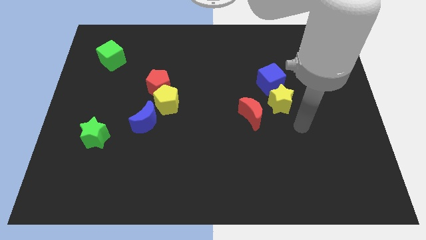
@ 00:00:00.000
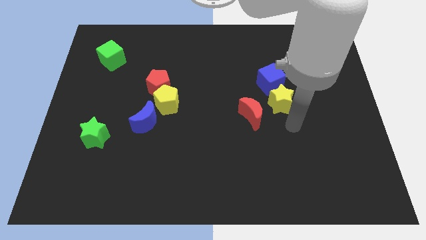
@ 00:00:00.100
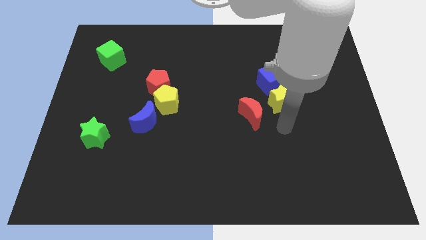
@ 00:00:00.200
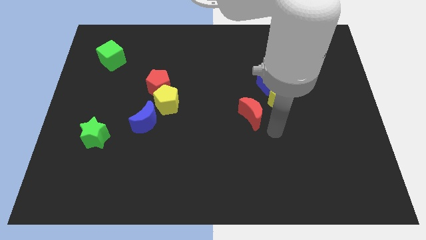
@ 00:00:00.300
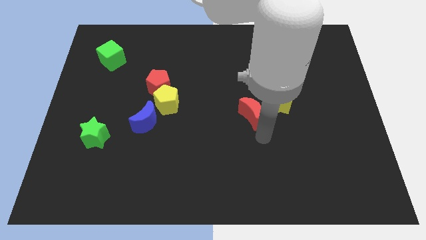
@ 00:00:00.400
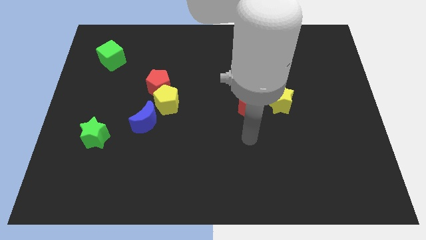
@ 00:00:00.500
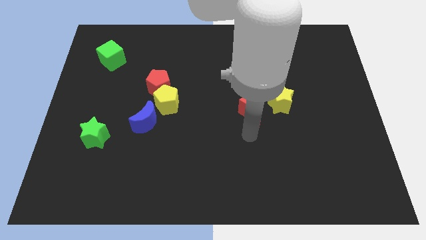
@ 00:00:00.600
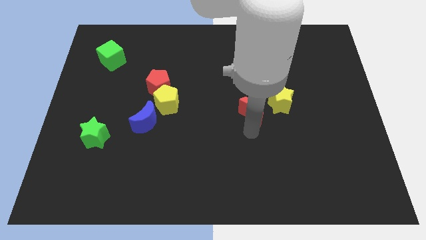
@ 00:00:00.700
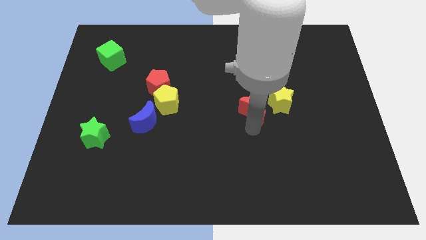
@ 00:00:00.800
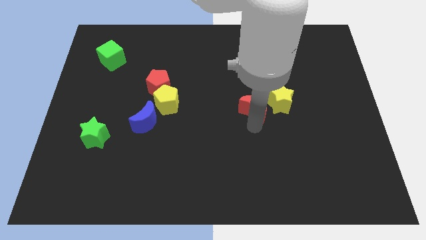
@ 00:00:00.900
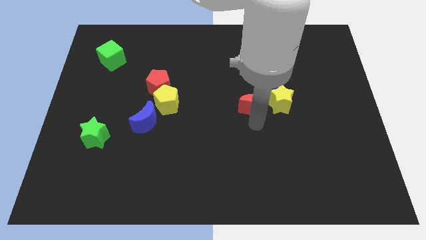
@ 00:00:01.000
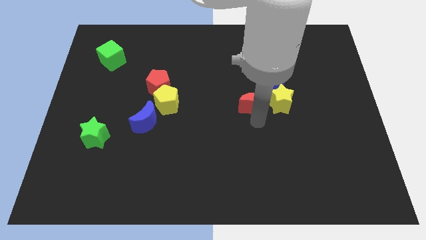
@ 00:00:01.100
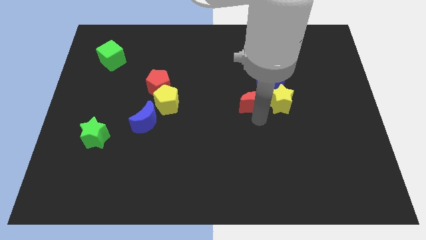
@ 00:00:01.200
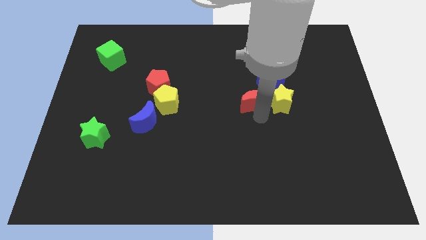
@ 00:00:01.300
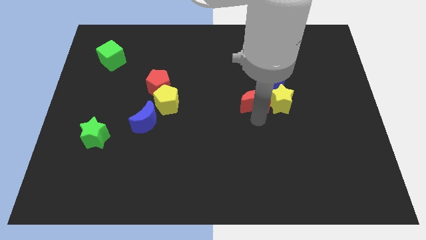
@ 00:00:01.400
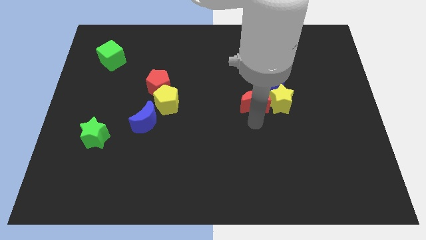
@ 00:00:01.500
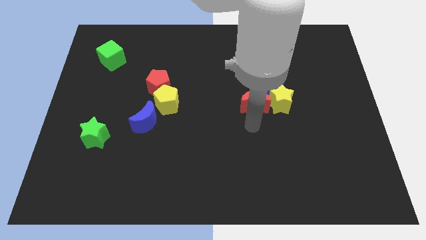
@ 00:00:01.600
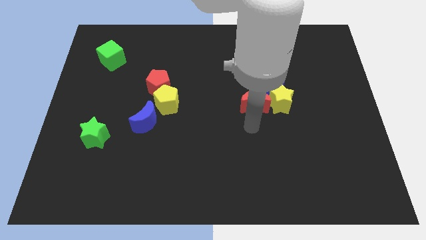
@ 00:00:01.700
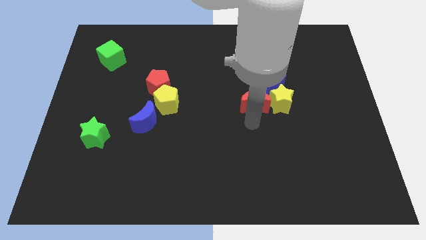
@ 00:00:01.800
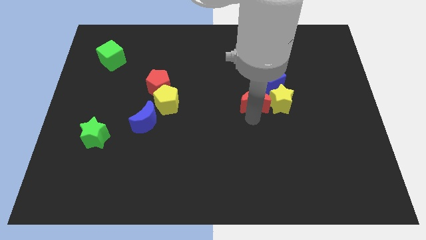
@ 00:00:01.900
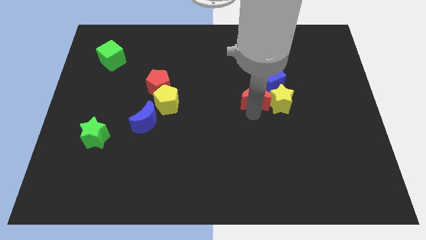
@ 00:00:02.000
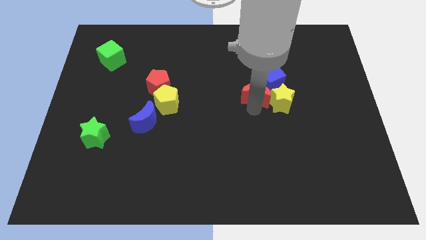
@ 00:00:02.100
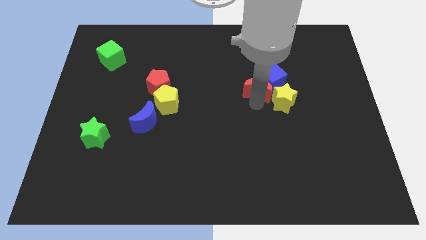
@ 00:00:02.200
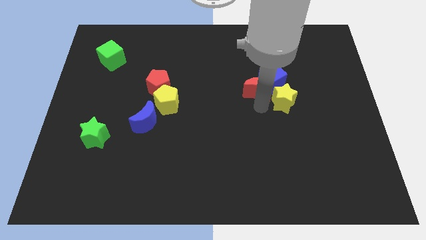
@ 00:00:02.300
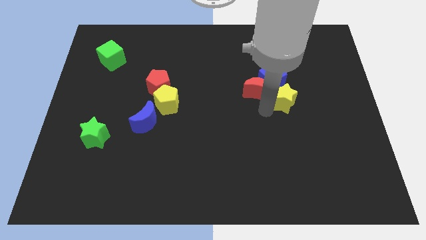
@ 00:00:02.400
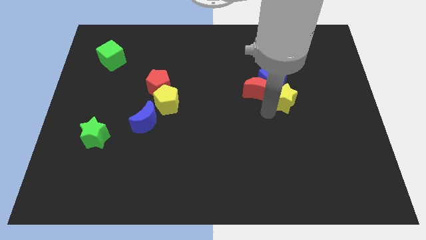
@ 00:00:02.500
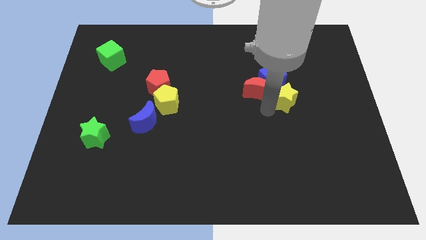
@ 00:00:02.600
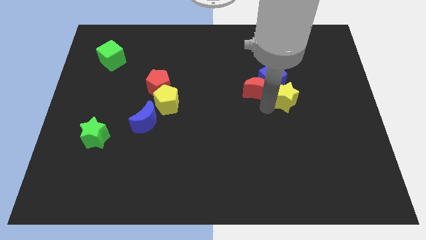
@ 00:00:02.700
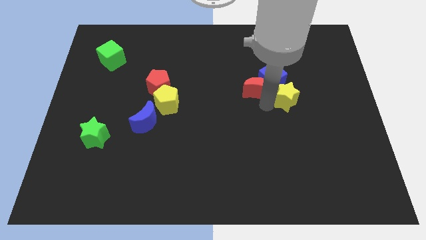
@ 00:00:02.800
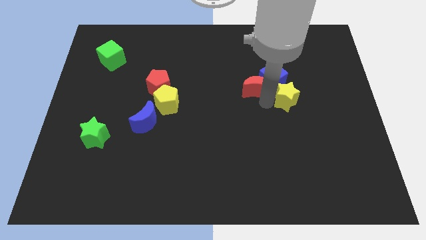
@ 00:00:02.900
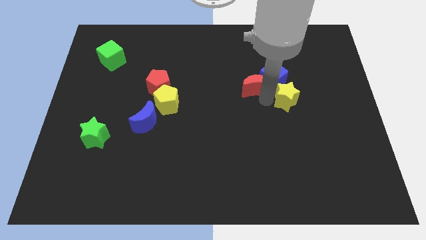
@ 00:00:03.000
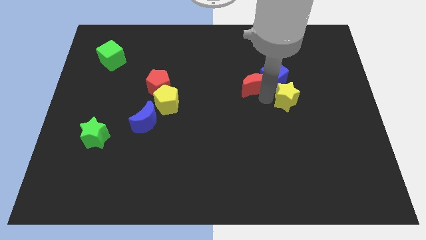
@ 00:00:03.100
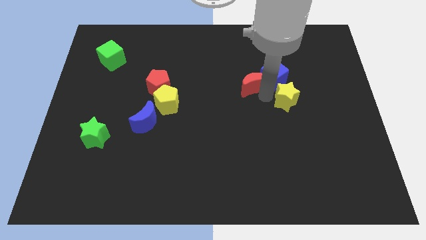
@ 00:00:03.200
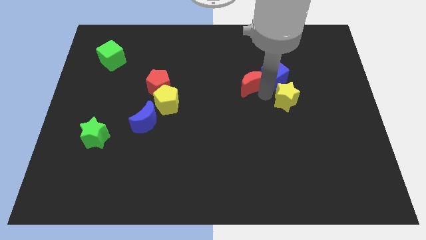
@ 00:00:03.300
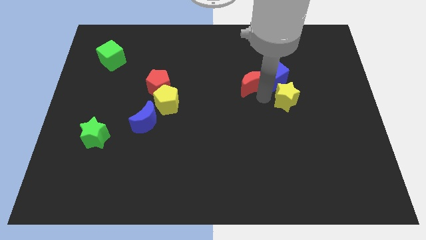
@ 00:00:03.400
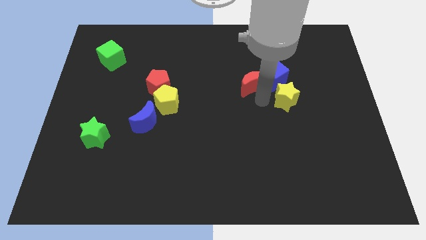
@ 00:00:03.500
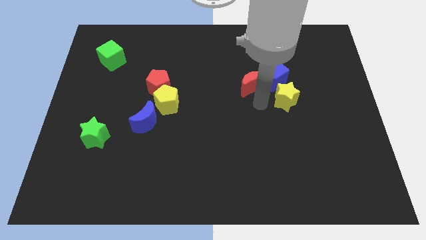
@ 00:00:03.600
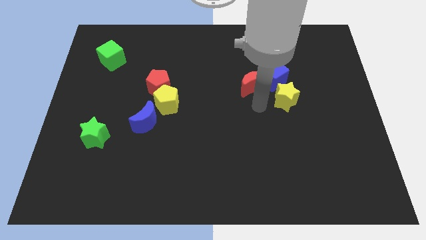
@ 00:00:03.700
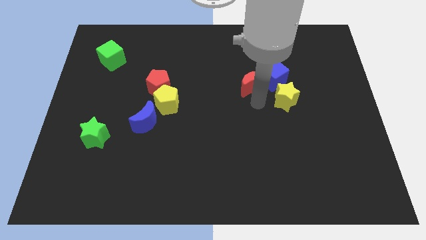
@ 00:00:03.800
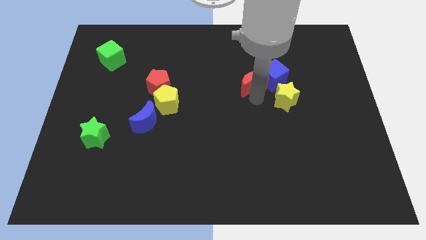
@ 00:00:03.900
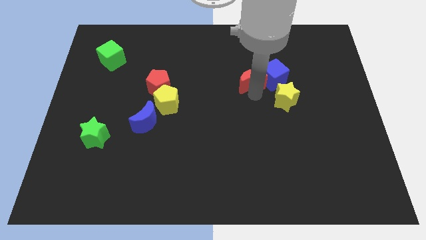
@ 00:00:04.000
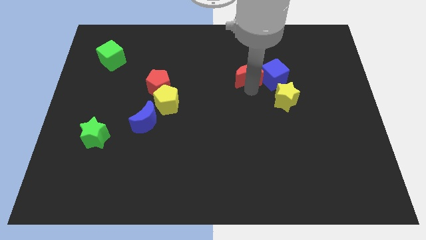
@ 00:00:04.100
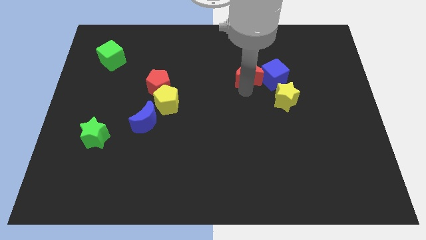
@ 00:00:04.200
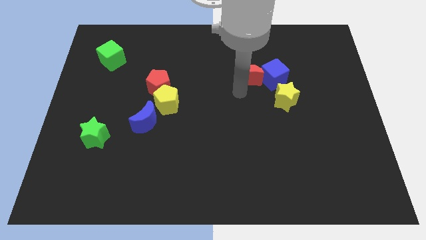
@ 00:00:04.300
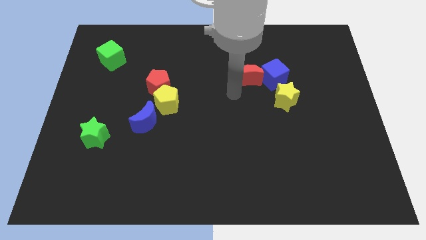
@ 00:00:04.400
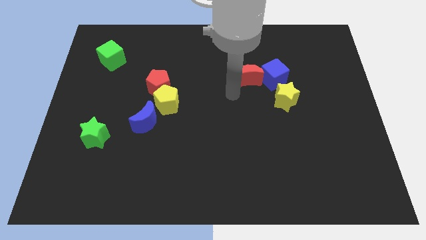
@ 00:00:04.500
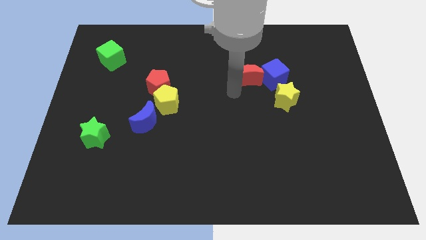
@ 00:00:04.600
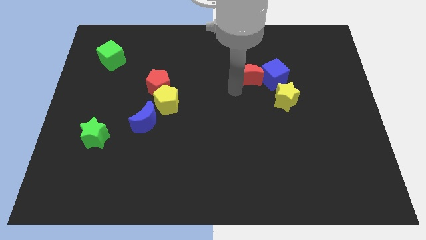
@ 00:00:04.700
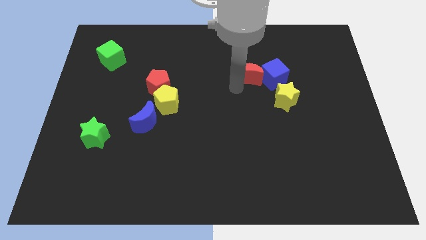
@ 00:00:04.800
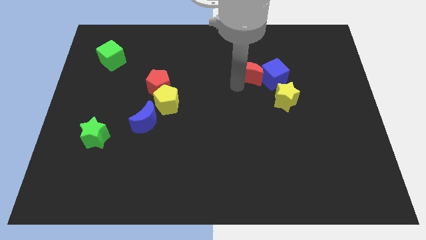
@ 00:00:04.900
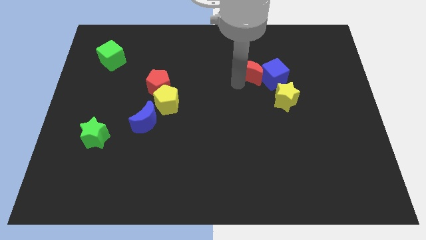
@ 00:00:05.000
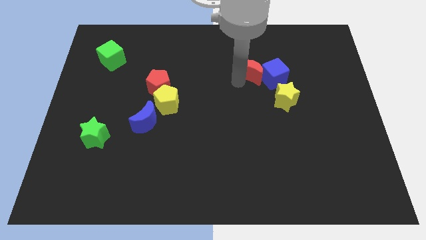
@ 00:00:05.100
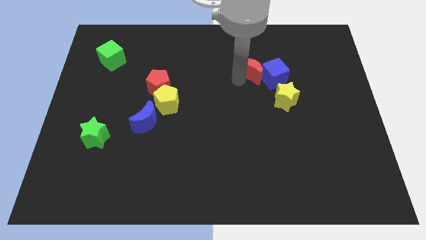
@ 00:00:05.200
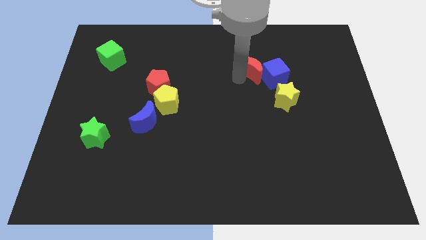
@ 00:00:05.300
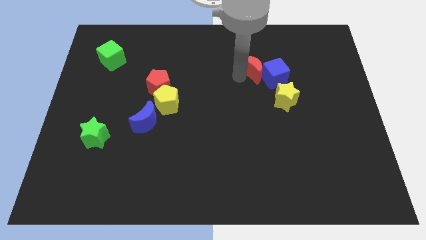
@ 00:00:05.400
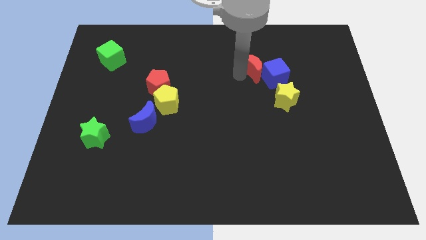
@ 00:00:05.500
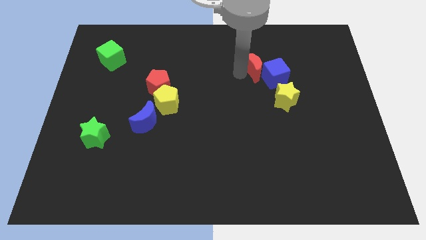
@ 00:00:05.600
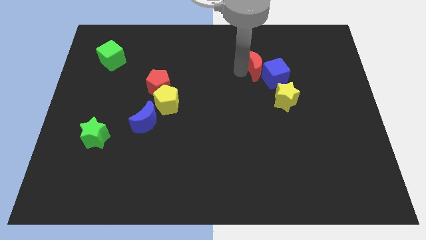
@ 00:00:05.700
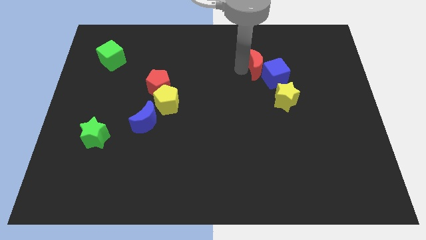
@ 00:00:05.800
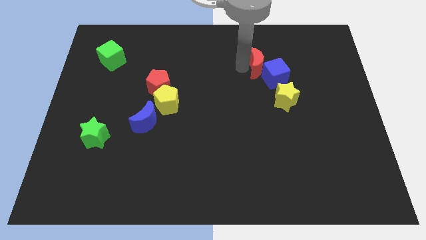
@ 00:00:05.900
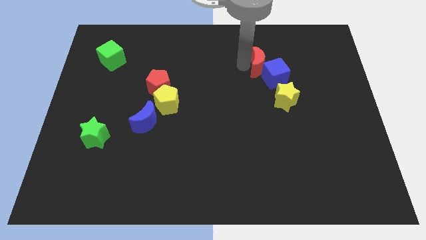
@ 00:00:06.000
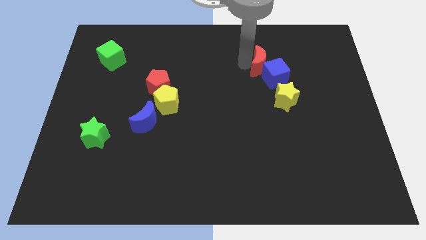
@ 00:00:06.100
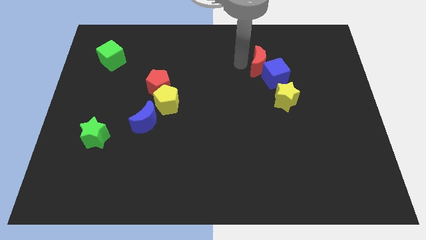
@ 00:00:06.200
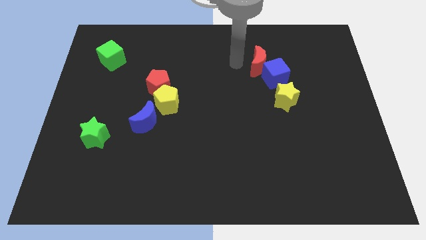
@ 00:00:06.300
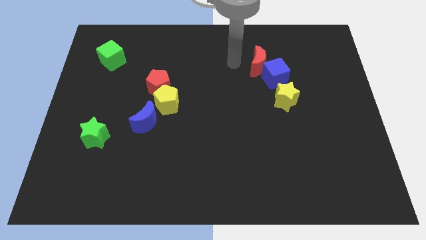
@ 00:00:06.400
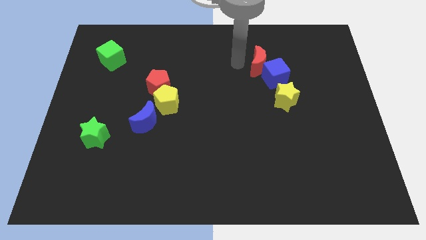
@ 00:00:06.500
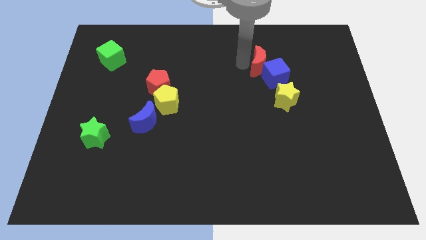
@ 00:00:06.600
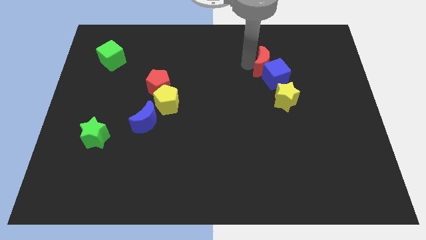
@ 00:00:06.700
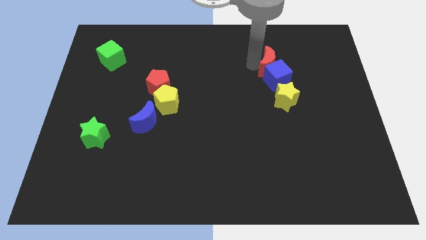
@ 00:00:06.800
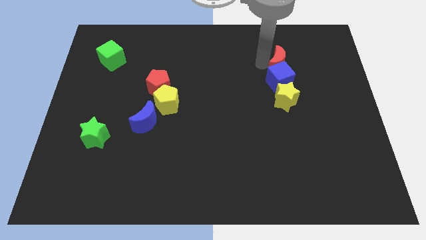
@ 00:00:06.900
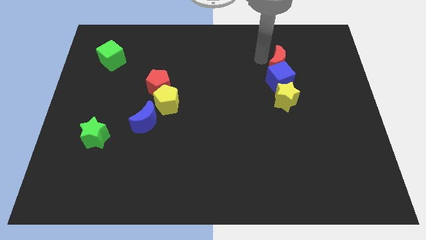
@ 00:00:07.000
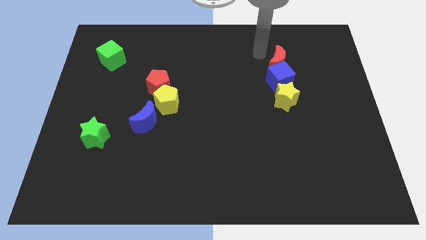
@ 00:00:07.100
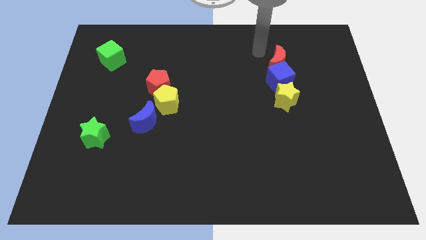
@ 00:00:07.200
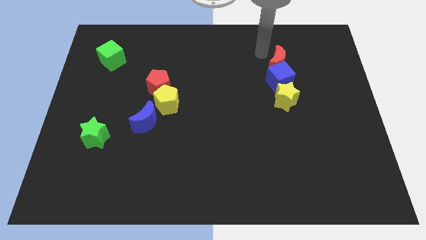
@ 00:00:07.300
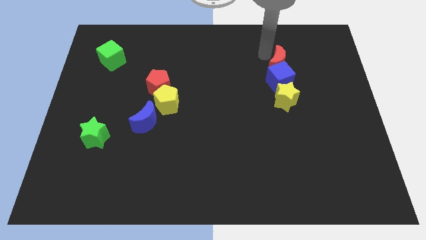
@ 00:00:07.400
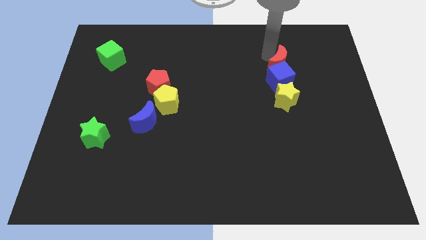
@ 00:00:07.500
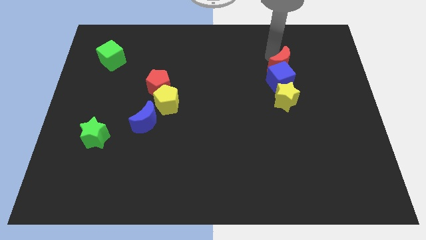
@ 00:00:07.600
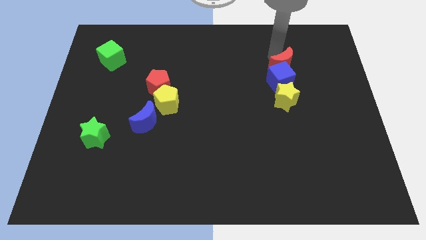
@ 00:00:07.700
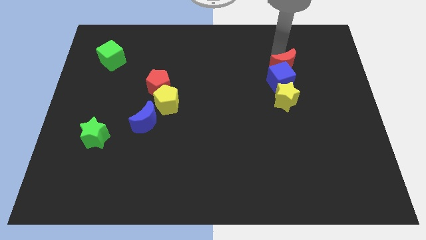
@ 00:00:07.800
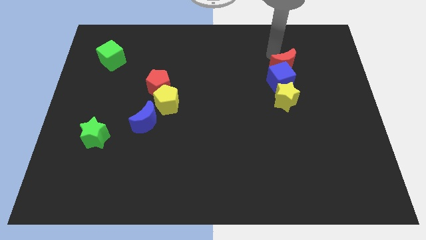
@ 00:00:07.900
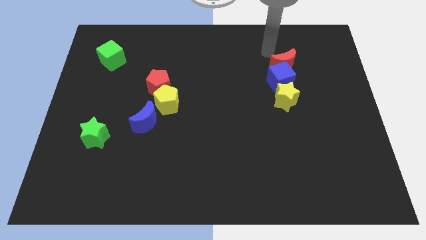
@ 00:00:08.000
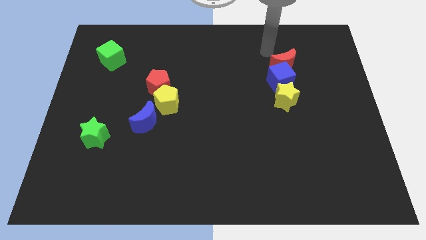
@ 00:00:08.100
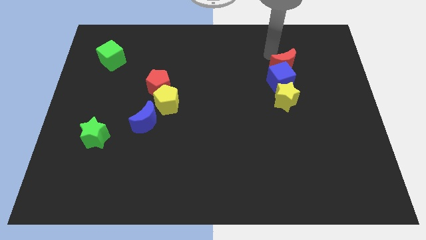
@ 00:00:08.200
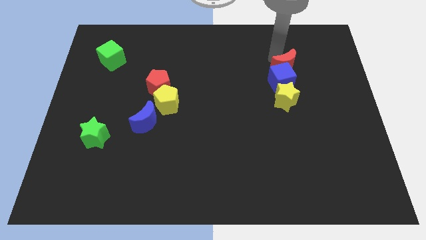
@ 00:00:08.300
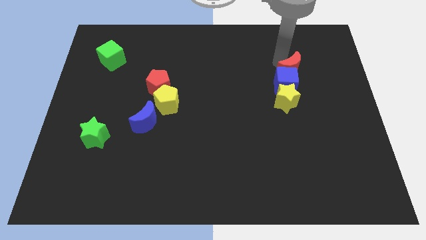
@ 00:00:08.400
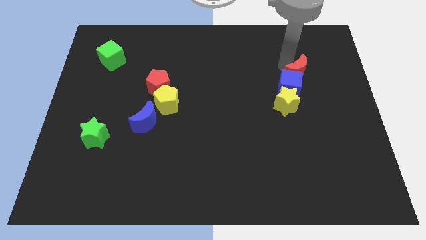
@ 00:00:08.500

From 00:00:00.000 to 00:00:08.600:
move the red moon to the top right side of the yellow star
